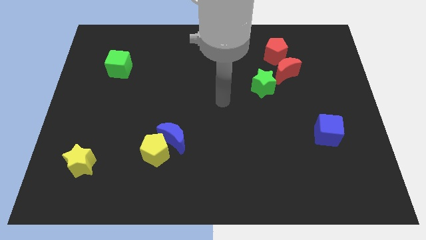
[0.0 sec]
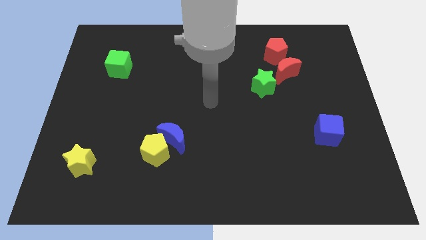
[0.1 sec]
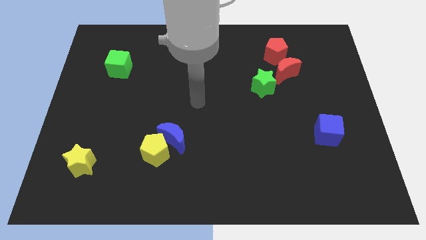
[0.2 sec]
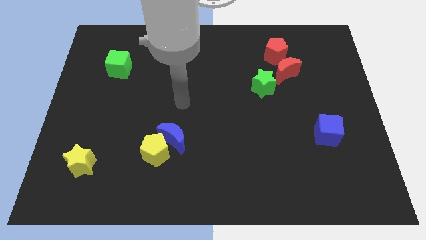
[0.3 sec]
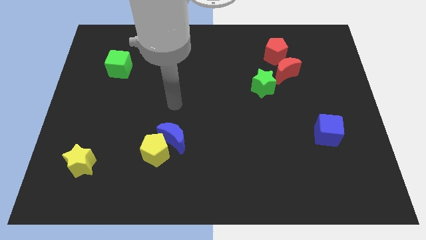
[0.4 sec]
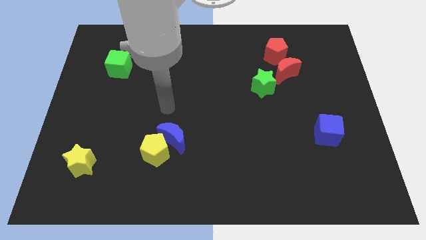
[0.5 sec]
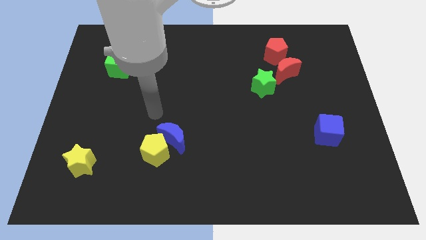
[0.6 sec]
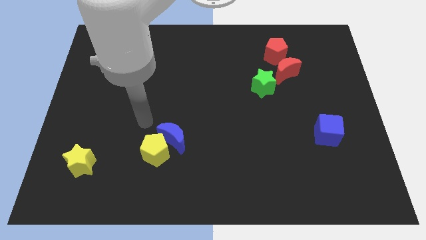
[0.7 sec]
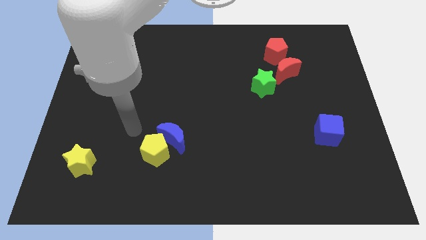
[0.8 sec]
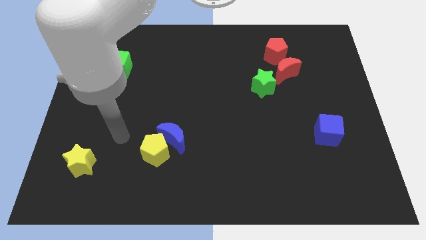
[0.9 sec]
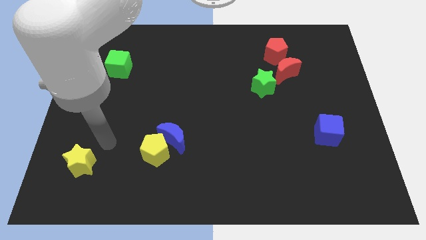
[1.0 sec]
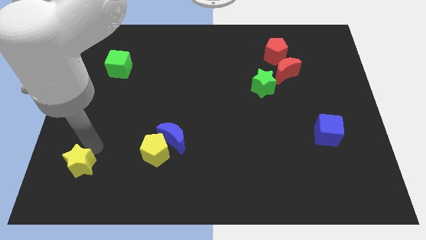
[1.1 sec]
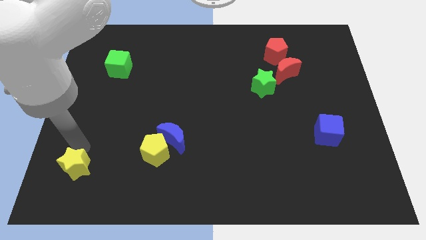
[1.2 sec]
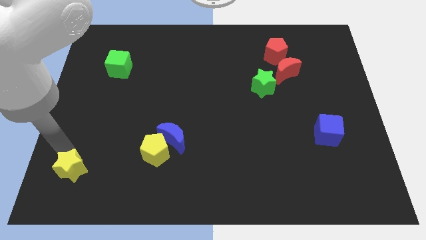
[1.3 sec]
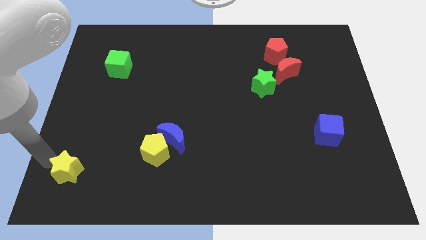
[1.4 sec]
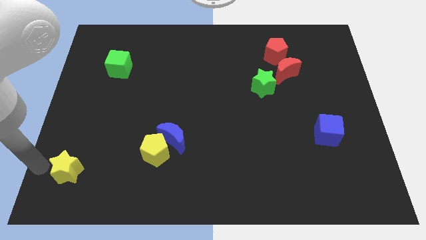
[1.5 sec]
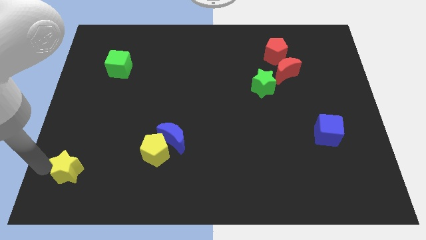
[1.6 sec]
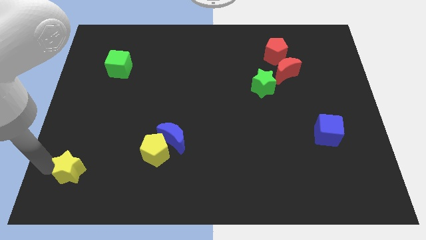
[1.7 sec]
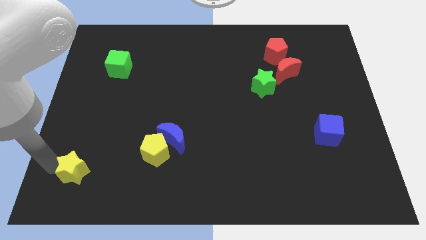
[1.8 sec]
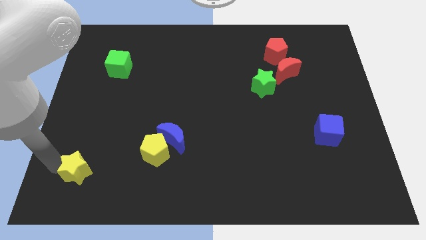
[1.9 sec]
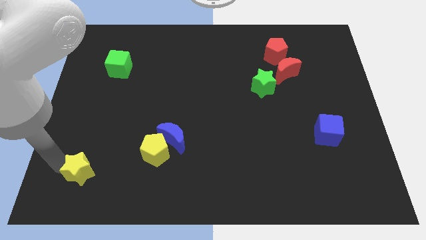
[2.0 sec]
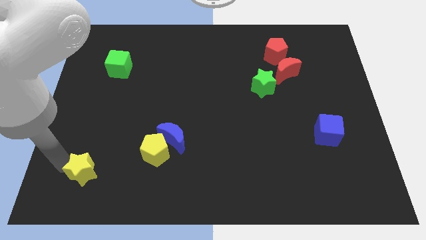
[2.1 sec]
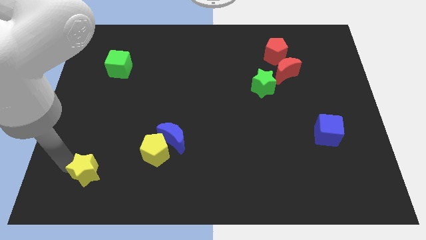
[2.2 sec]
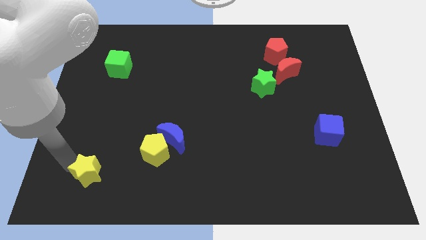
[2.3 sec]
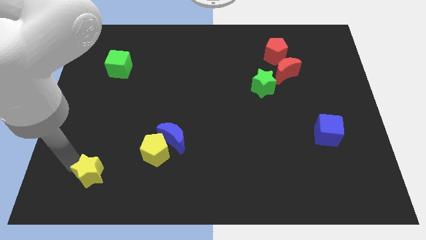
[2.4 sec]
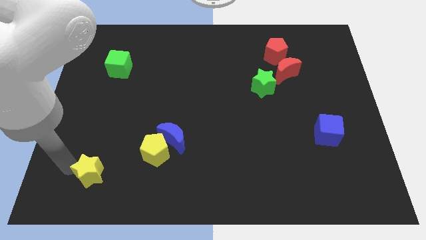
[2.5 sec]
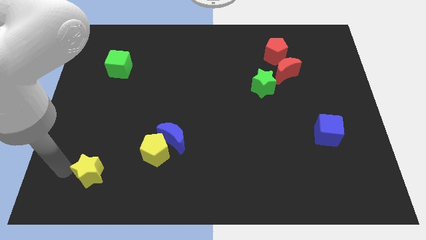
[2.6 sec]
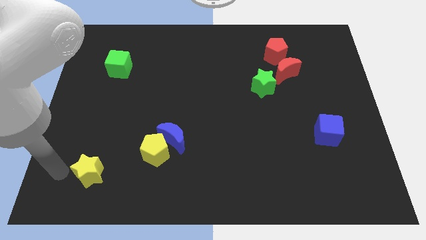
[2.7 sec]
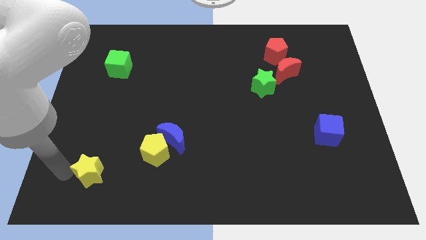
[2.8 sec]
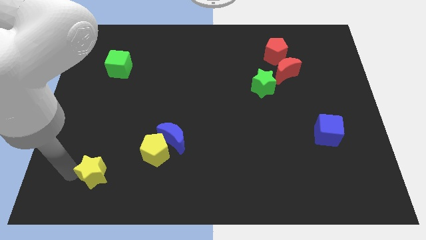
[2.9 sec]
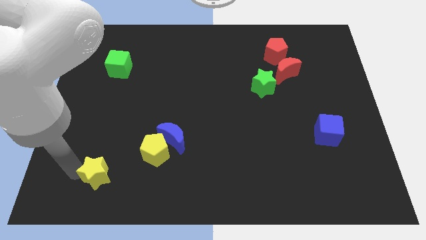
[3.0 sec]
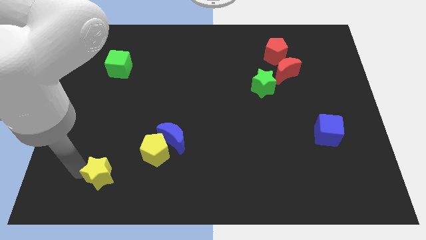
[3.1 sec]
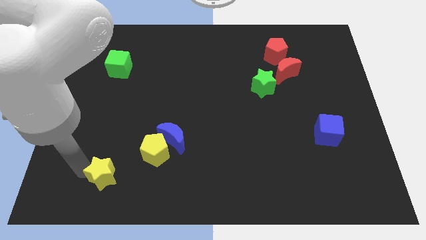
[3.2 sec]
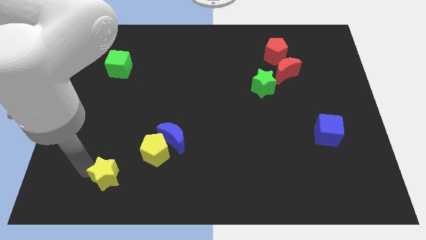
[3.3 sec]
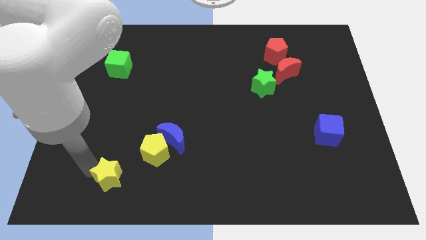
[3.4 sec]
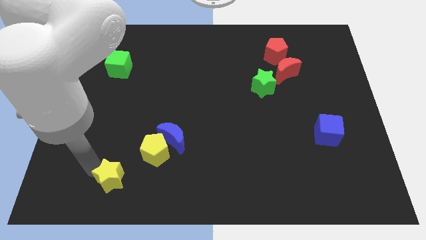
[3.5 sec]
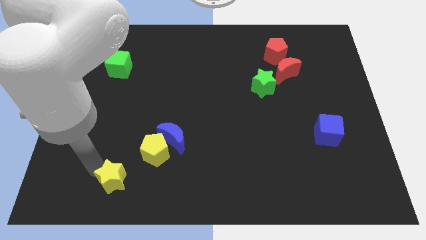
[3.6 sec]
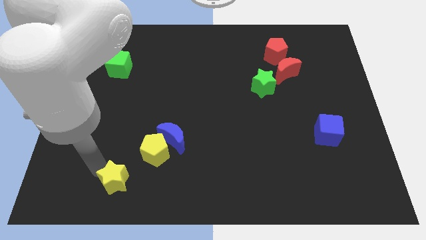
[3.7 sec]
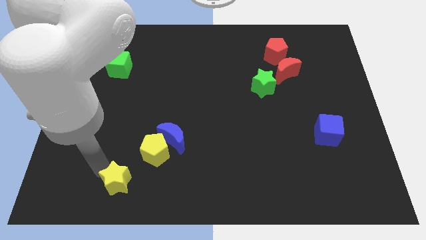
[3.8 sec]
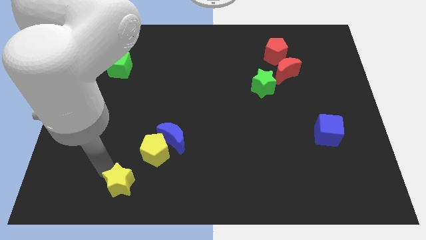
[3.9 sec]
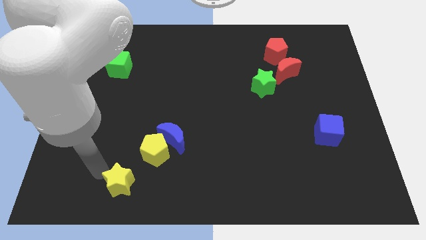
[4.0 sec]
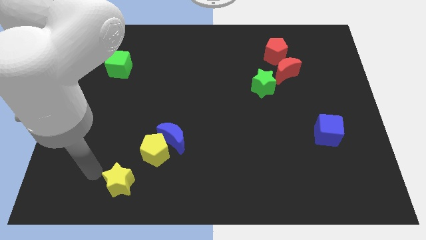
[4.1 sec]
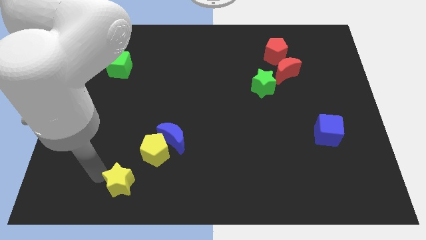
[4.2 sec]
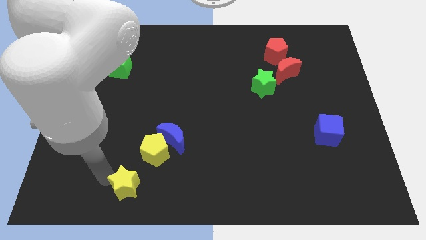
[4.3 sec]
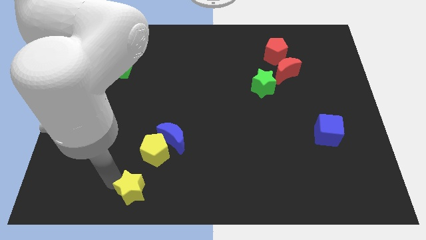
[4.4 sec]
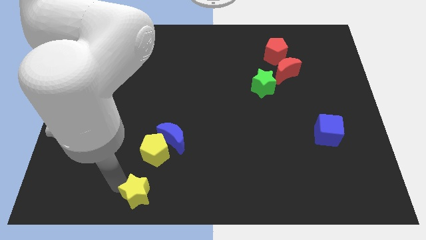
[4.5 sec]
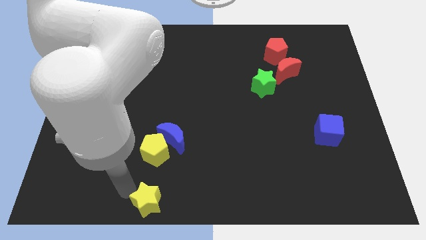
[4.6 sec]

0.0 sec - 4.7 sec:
slide the yellow star to the bottom

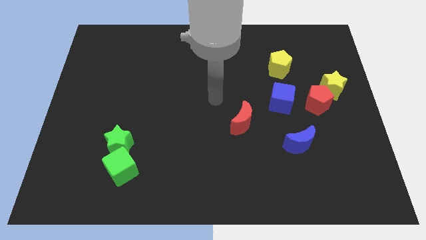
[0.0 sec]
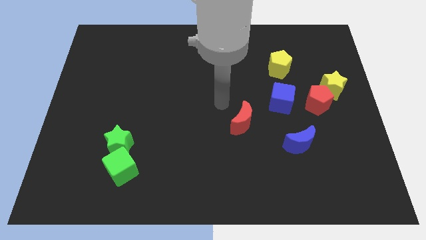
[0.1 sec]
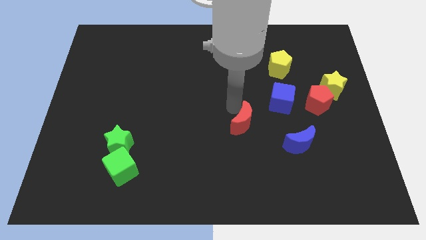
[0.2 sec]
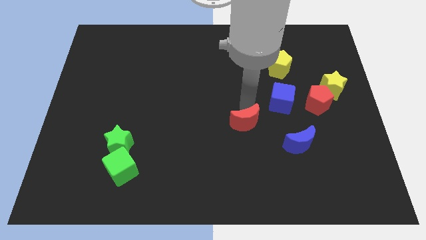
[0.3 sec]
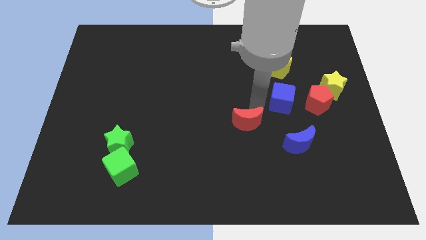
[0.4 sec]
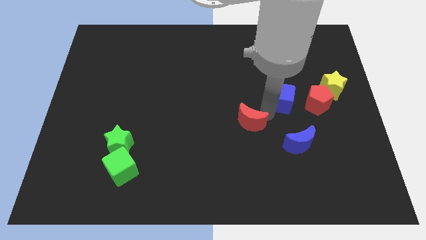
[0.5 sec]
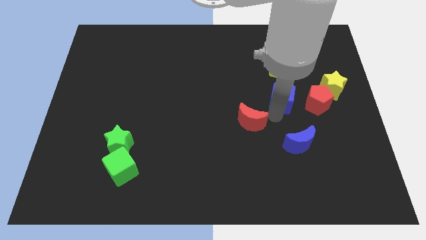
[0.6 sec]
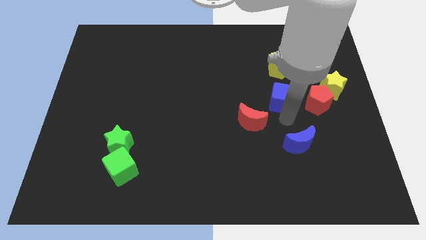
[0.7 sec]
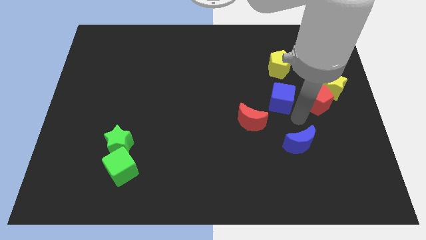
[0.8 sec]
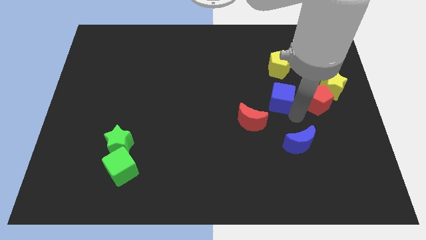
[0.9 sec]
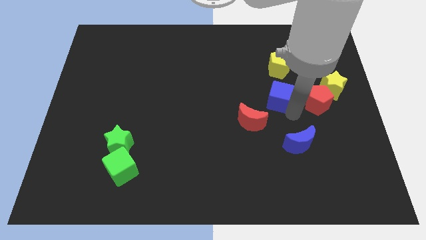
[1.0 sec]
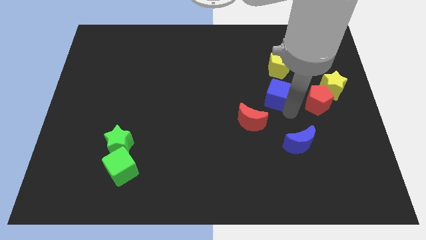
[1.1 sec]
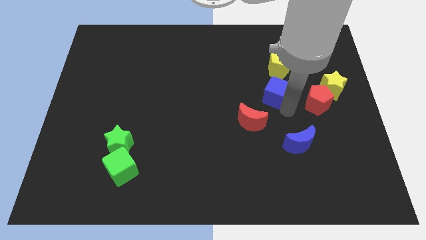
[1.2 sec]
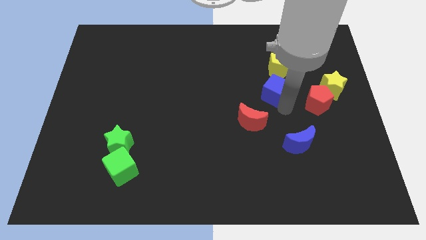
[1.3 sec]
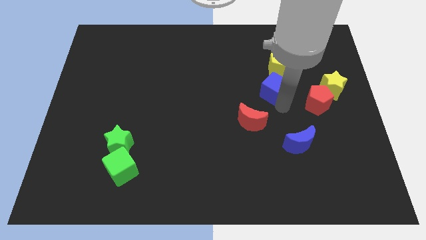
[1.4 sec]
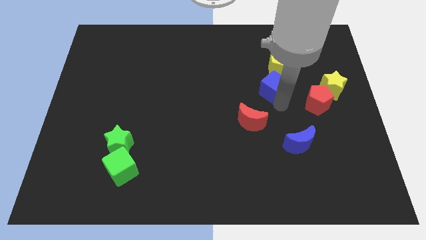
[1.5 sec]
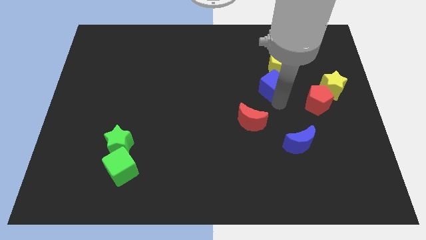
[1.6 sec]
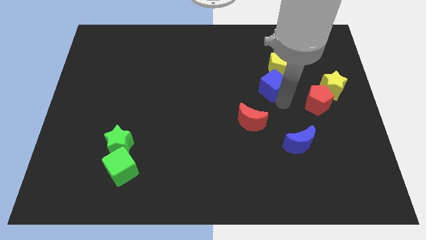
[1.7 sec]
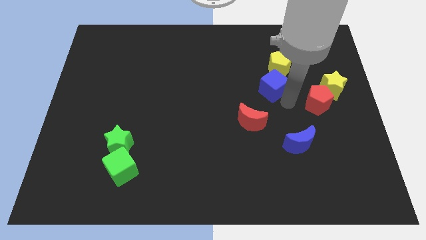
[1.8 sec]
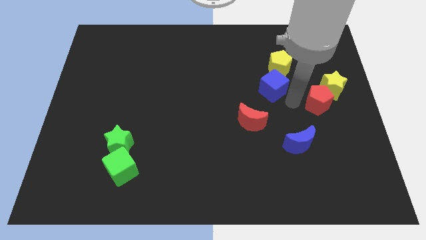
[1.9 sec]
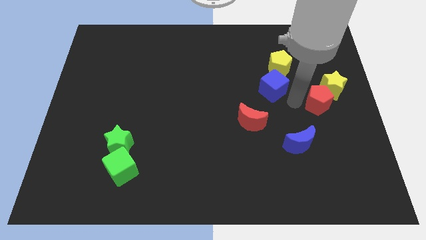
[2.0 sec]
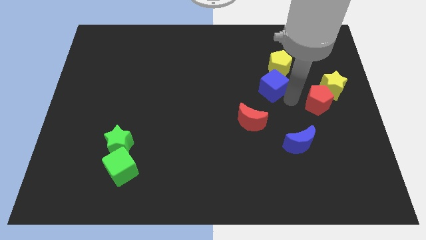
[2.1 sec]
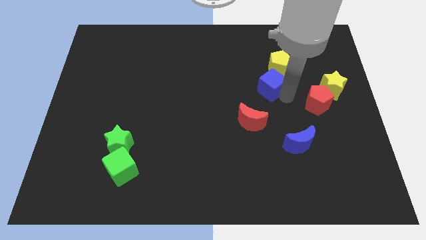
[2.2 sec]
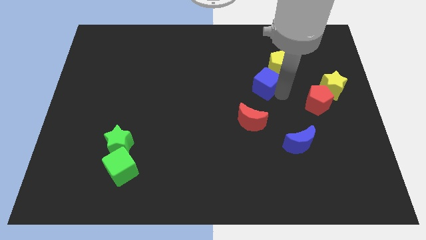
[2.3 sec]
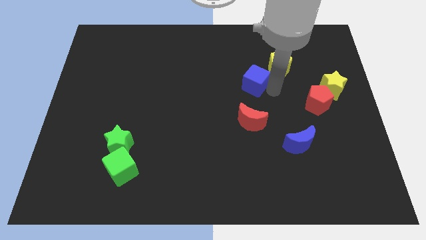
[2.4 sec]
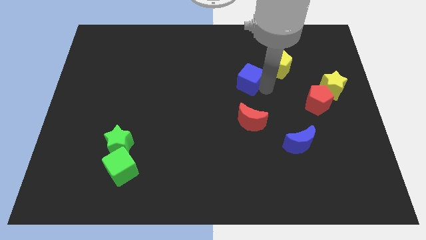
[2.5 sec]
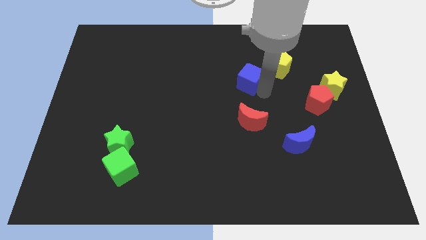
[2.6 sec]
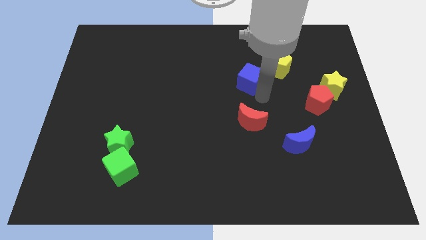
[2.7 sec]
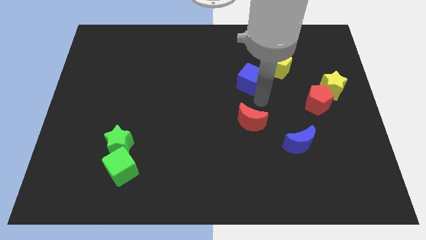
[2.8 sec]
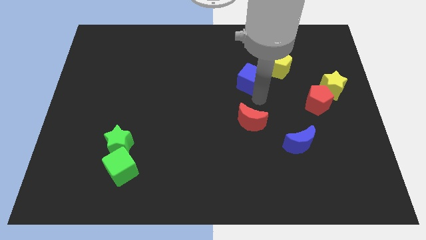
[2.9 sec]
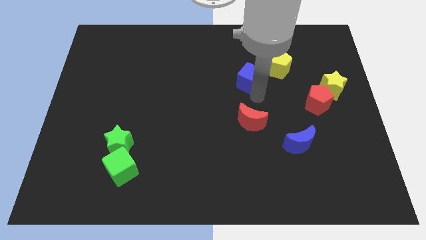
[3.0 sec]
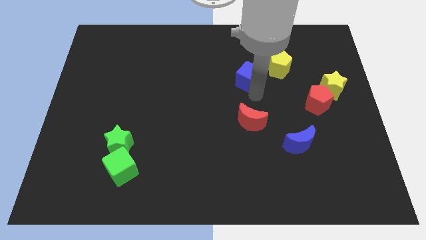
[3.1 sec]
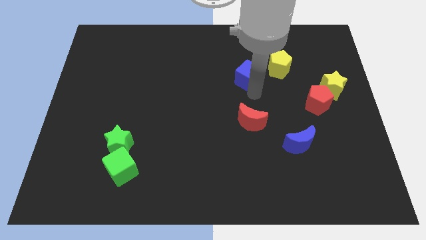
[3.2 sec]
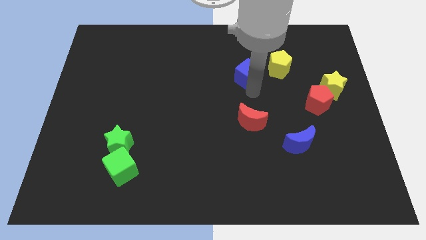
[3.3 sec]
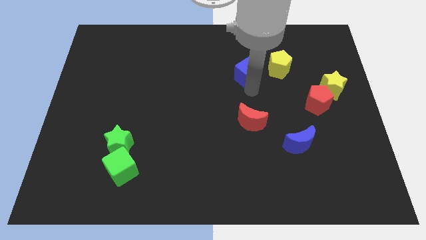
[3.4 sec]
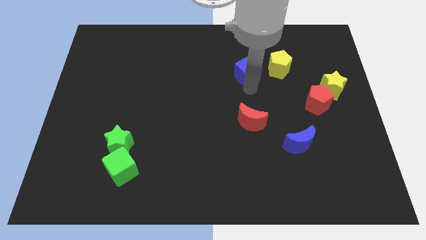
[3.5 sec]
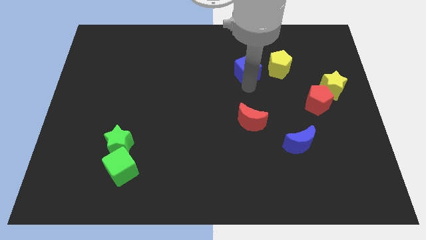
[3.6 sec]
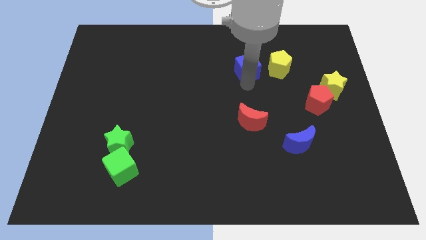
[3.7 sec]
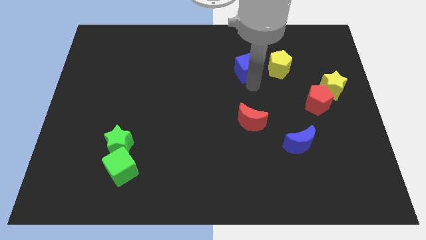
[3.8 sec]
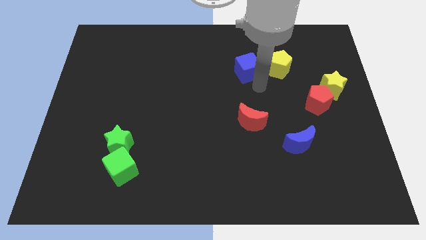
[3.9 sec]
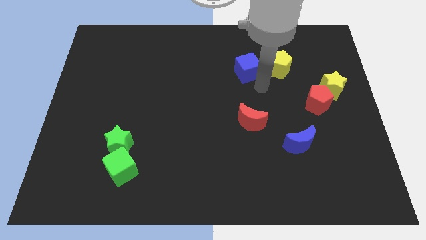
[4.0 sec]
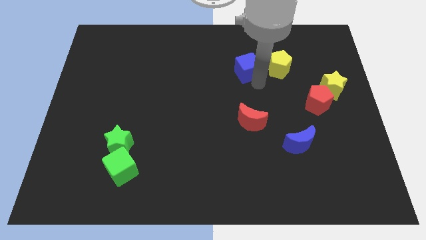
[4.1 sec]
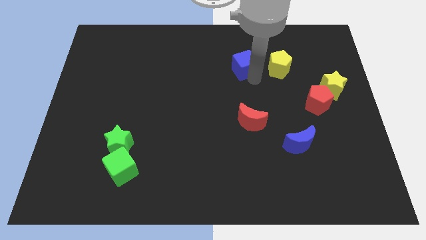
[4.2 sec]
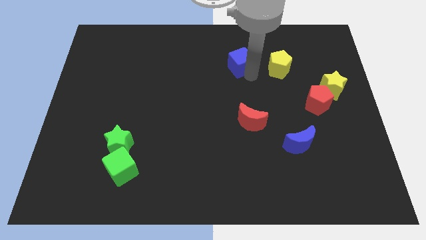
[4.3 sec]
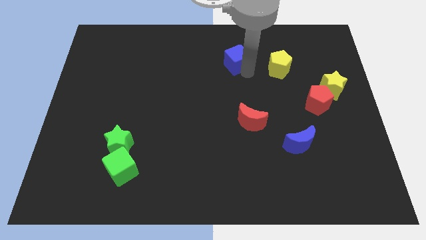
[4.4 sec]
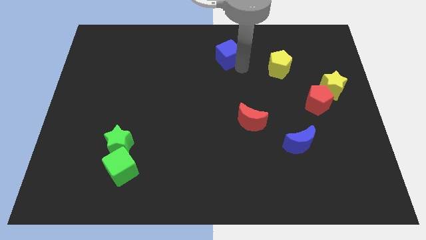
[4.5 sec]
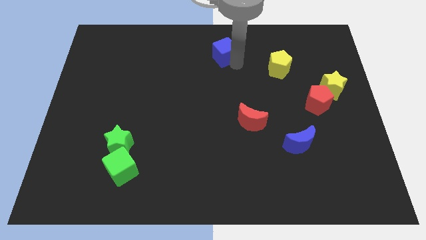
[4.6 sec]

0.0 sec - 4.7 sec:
push the blue cube to the top side
